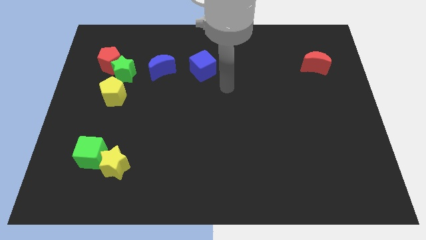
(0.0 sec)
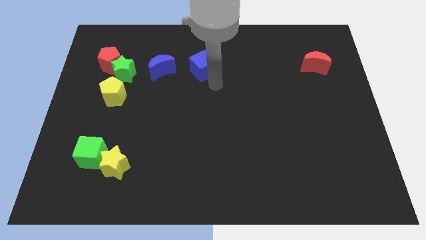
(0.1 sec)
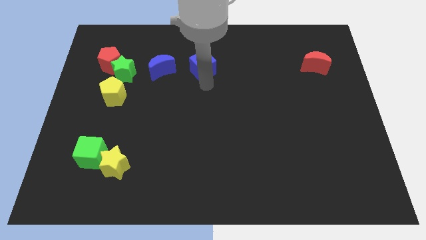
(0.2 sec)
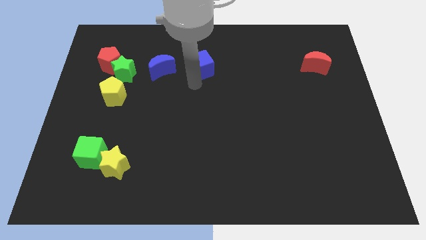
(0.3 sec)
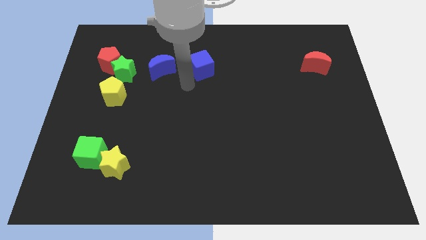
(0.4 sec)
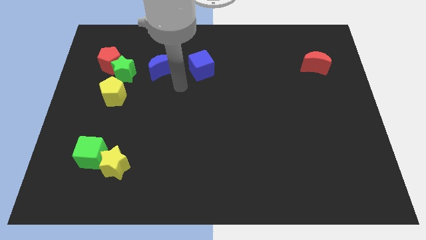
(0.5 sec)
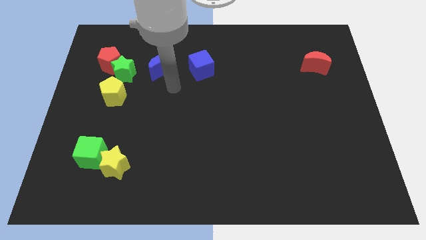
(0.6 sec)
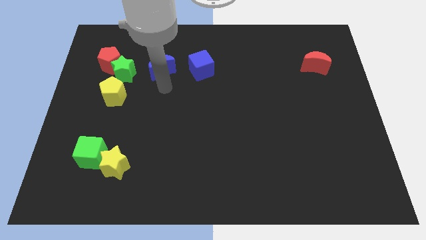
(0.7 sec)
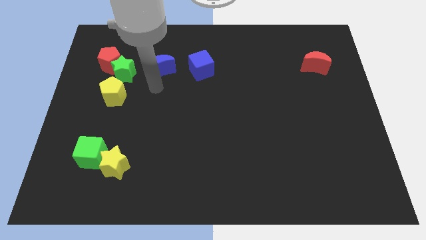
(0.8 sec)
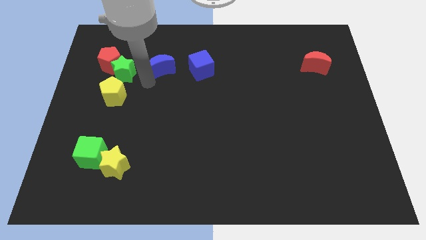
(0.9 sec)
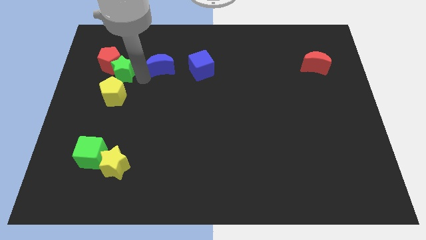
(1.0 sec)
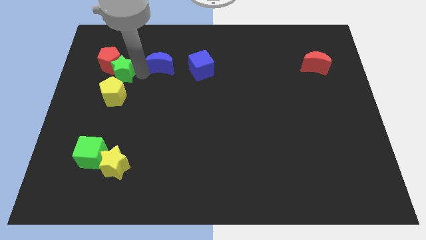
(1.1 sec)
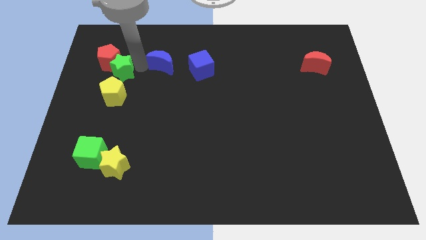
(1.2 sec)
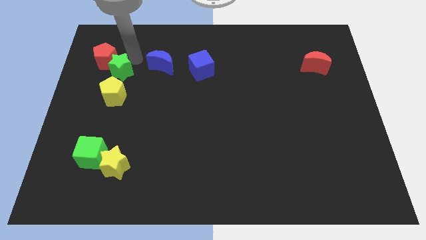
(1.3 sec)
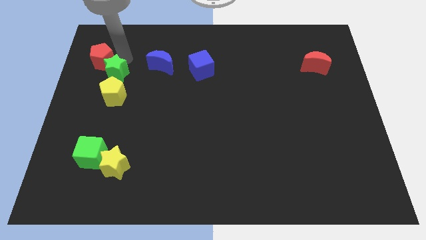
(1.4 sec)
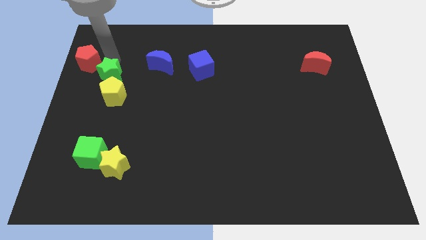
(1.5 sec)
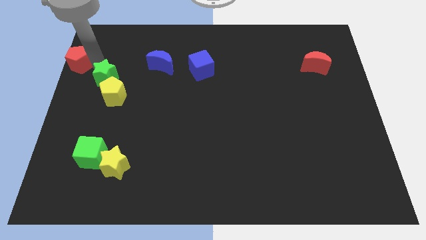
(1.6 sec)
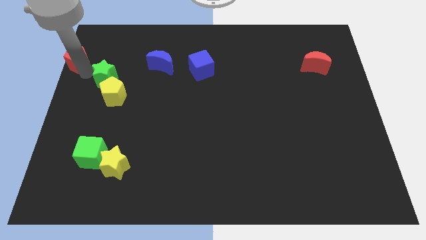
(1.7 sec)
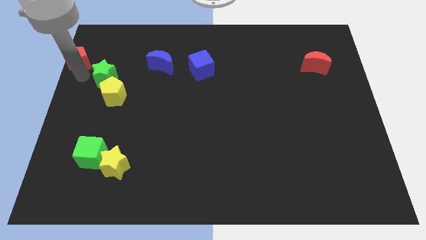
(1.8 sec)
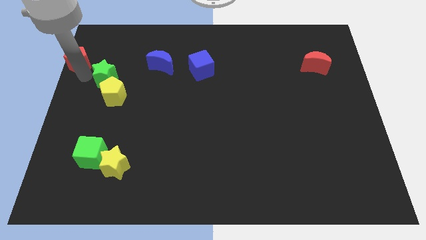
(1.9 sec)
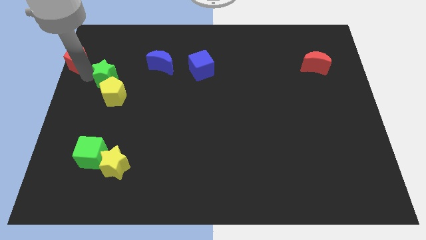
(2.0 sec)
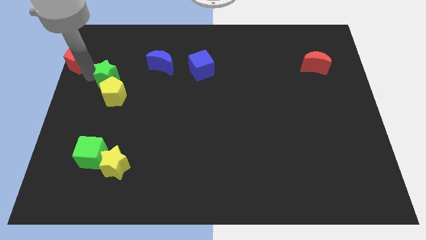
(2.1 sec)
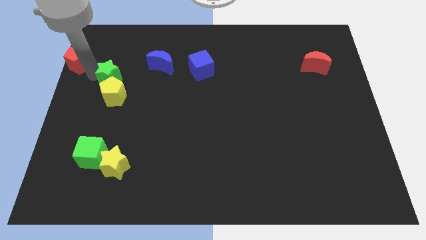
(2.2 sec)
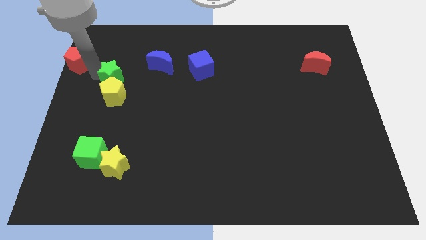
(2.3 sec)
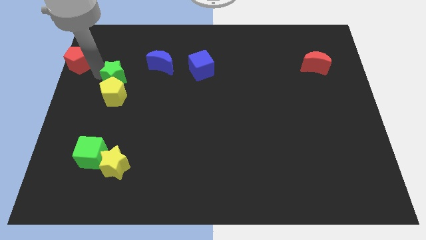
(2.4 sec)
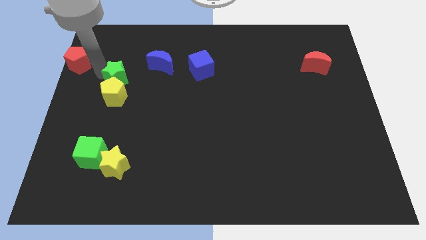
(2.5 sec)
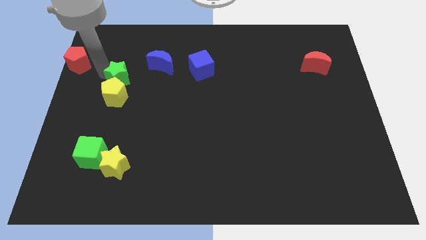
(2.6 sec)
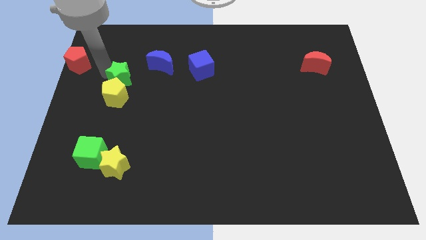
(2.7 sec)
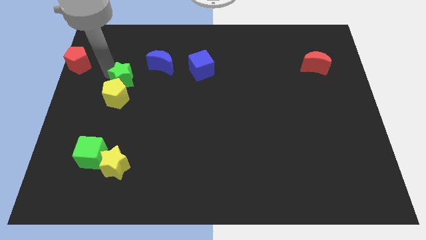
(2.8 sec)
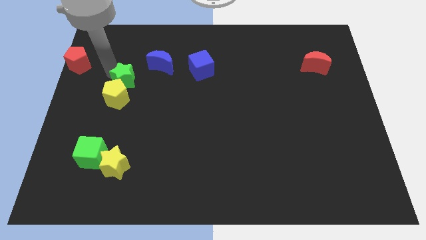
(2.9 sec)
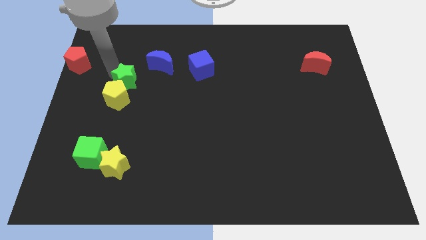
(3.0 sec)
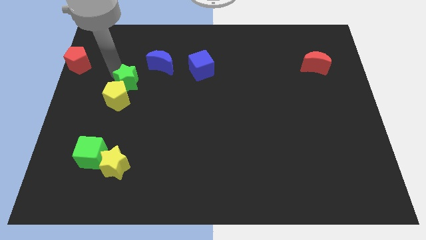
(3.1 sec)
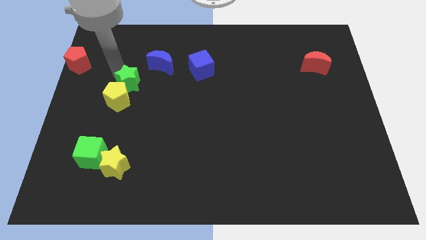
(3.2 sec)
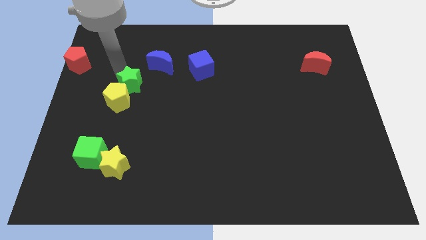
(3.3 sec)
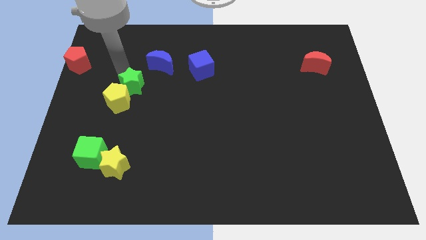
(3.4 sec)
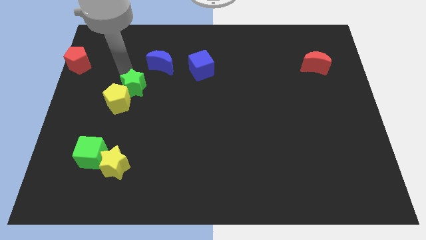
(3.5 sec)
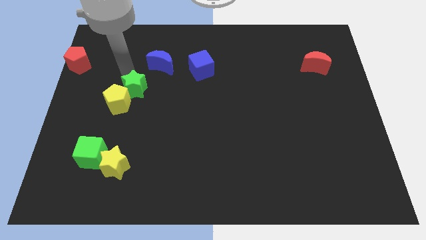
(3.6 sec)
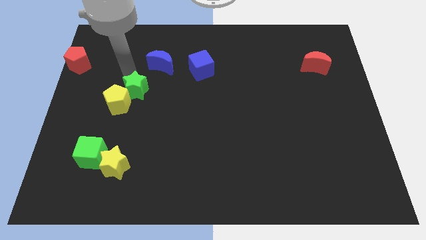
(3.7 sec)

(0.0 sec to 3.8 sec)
move the green star diagonally downwards and to the right a bit

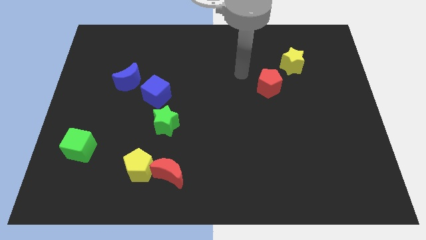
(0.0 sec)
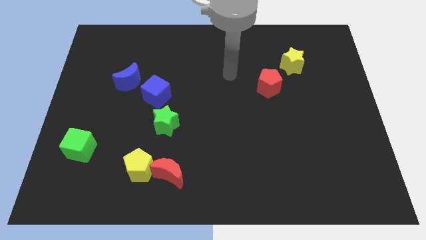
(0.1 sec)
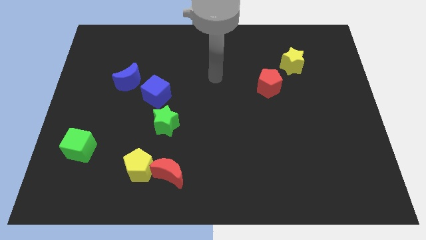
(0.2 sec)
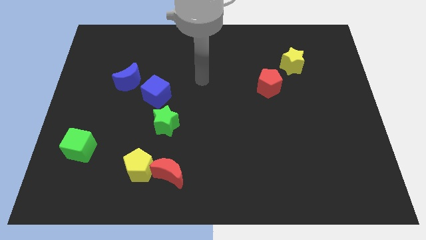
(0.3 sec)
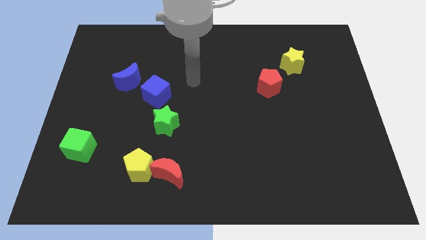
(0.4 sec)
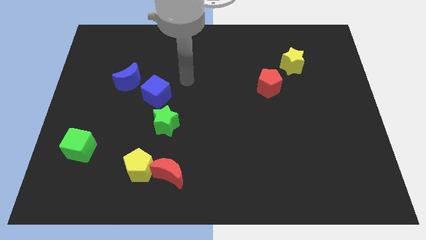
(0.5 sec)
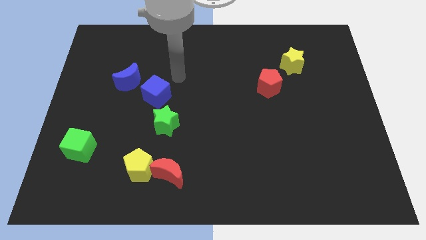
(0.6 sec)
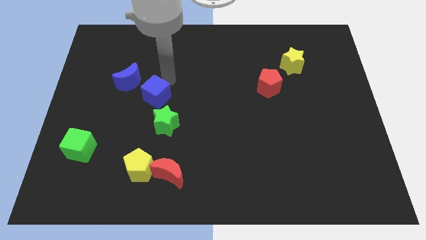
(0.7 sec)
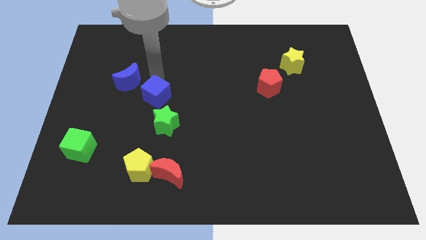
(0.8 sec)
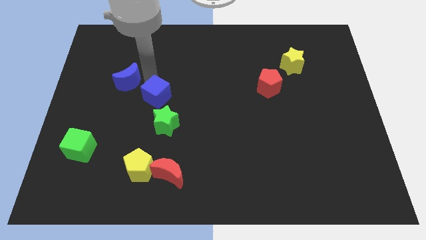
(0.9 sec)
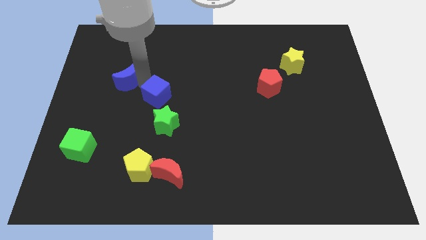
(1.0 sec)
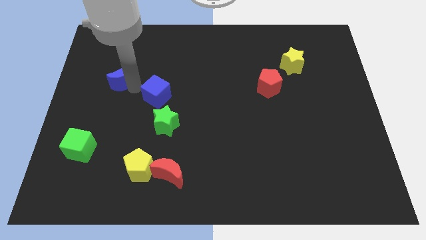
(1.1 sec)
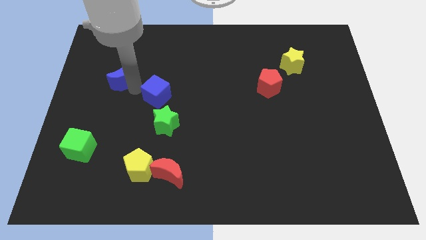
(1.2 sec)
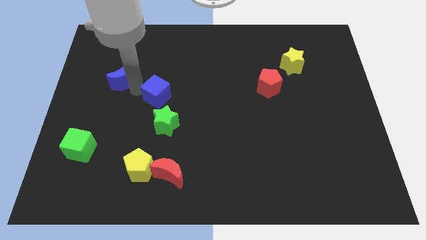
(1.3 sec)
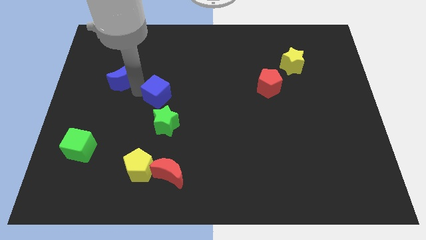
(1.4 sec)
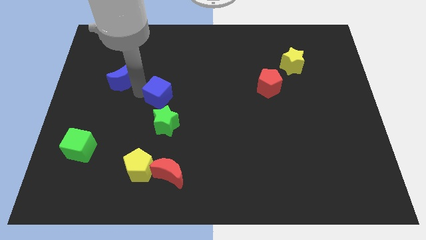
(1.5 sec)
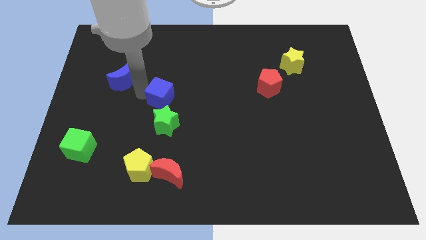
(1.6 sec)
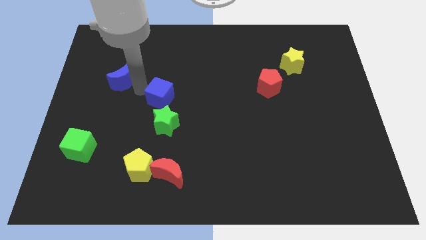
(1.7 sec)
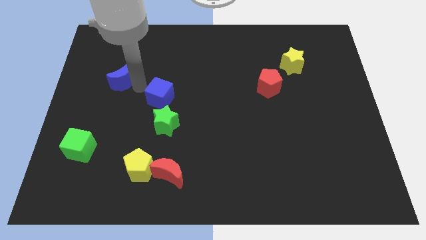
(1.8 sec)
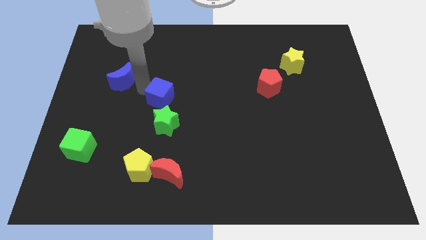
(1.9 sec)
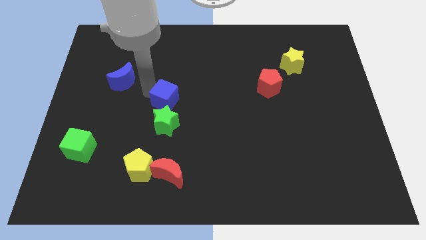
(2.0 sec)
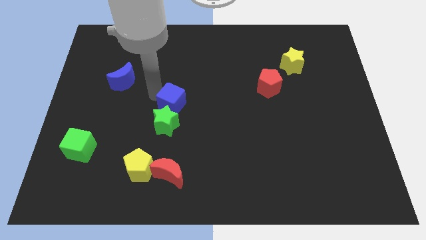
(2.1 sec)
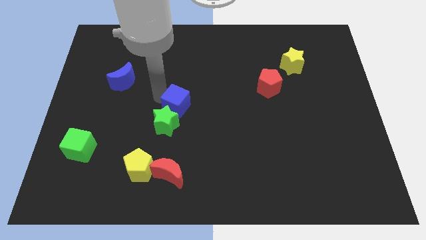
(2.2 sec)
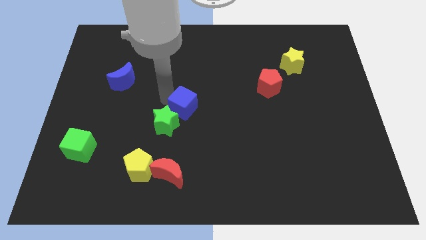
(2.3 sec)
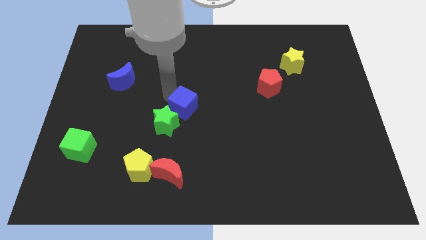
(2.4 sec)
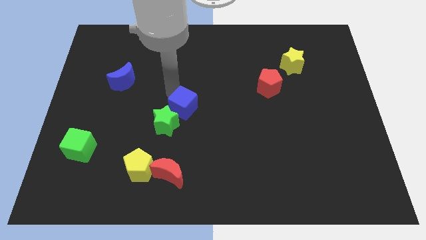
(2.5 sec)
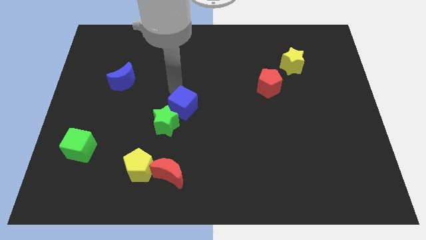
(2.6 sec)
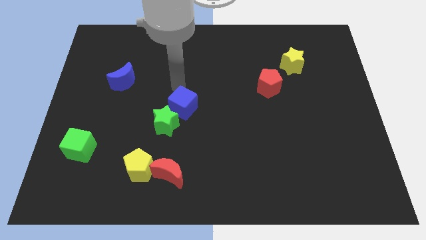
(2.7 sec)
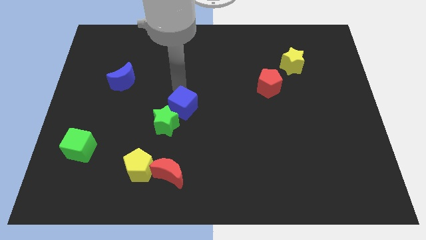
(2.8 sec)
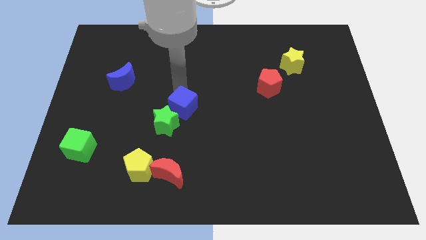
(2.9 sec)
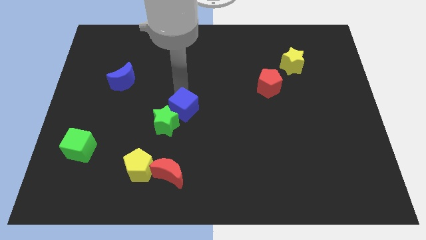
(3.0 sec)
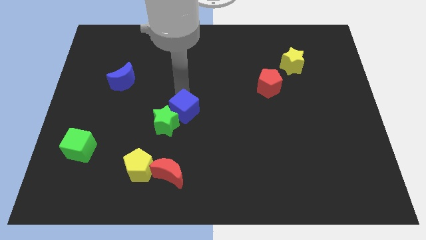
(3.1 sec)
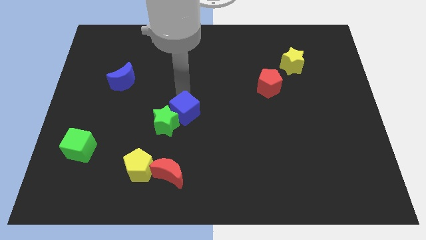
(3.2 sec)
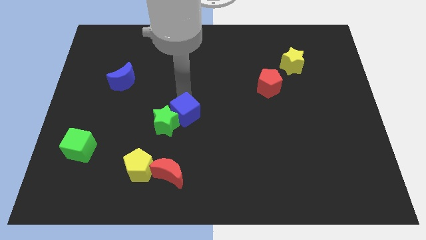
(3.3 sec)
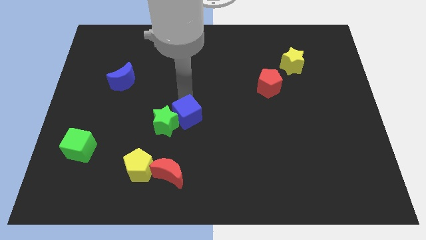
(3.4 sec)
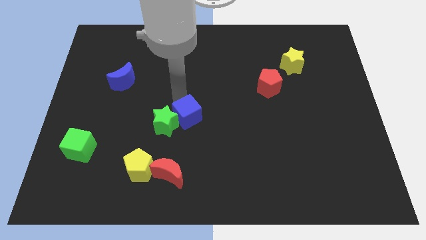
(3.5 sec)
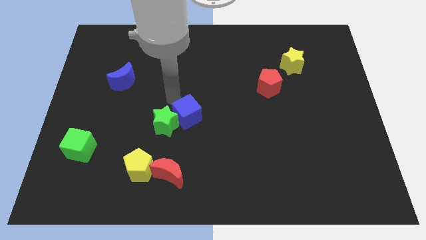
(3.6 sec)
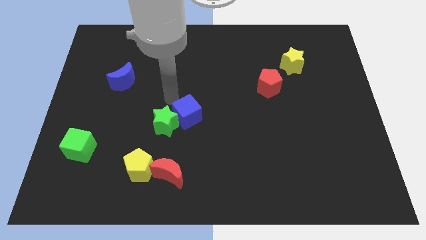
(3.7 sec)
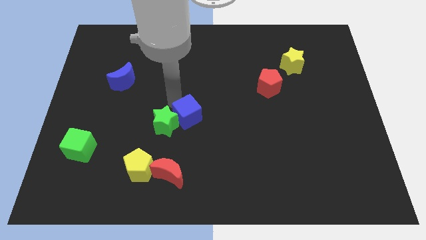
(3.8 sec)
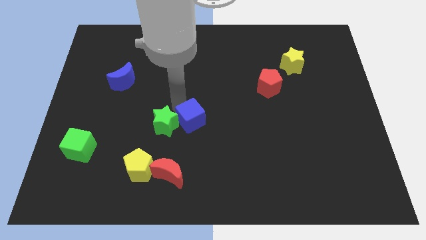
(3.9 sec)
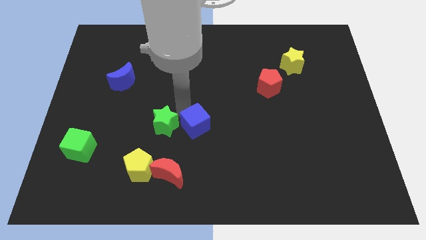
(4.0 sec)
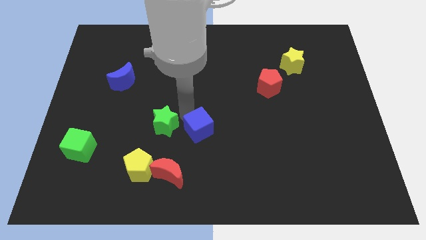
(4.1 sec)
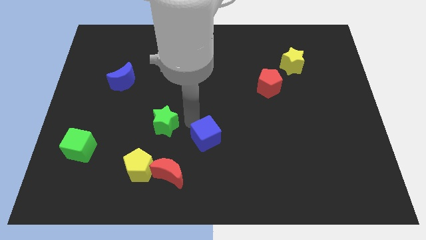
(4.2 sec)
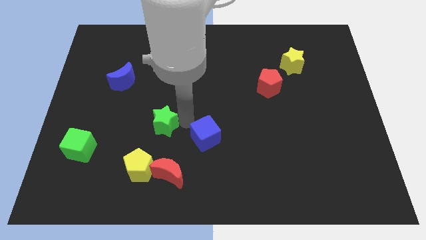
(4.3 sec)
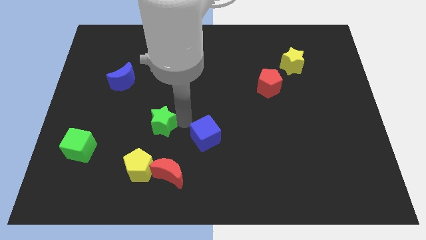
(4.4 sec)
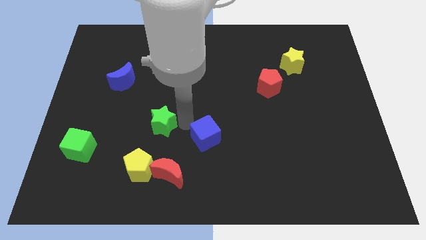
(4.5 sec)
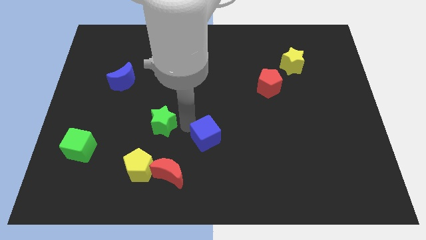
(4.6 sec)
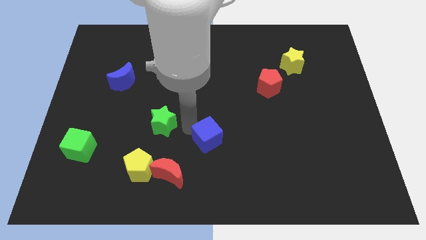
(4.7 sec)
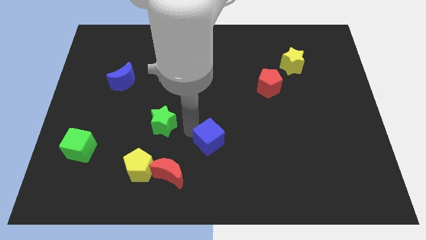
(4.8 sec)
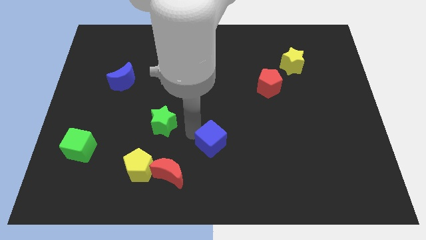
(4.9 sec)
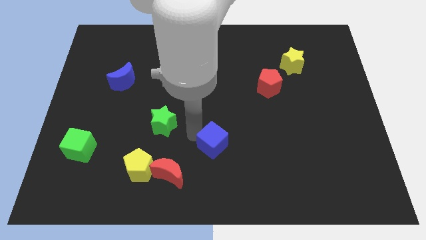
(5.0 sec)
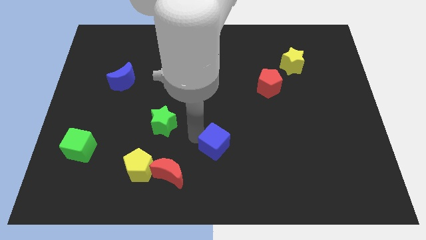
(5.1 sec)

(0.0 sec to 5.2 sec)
move the blue cube down and right diagonally
